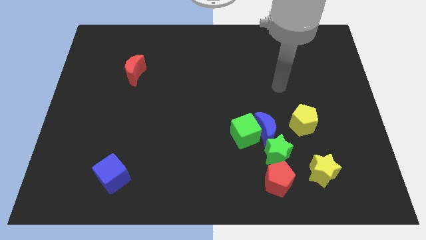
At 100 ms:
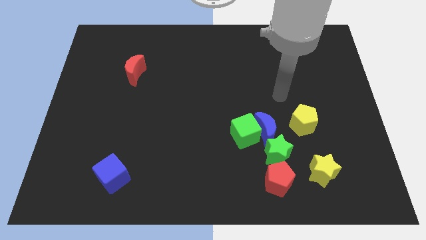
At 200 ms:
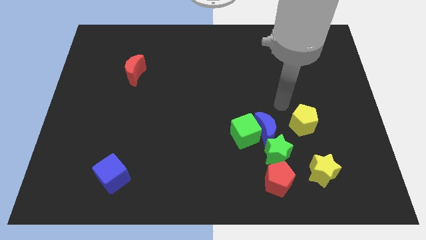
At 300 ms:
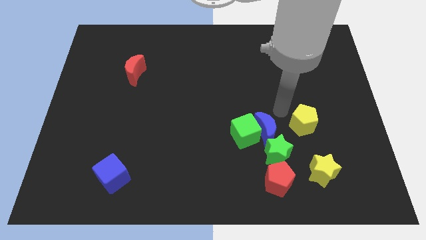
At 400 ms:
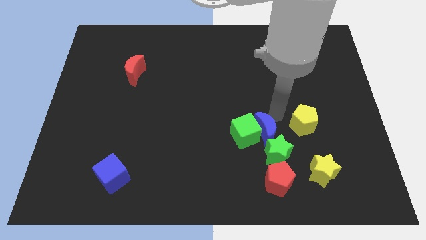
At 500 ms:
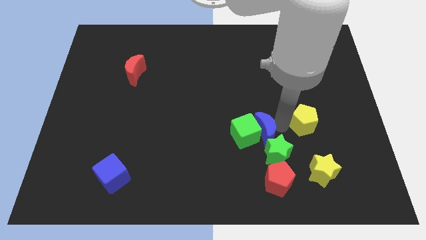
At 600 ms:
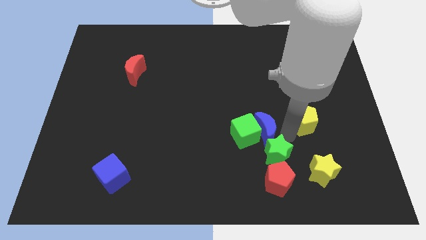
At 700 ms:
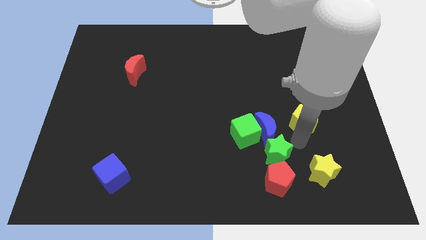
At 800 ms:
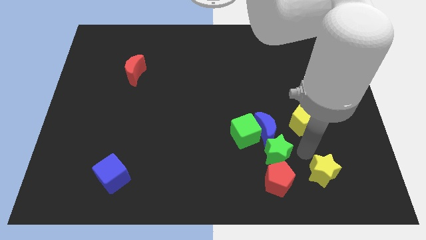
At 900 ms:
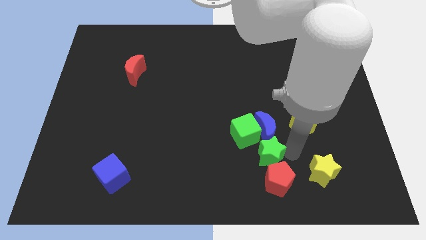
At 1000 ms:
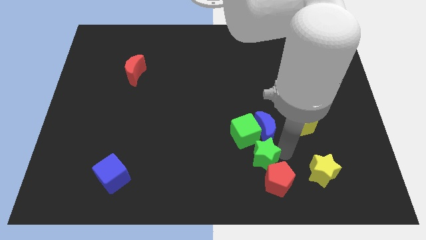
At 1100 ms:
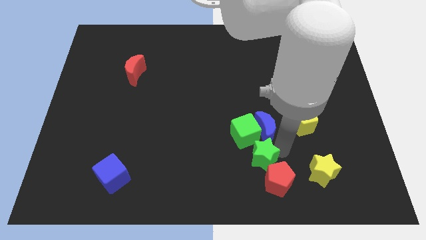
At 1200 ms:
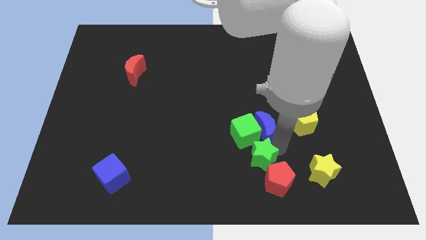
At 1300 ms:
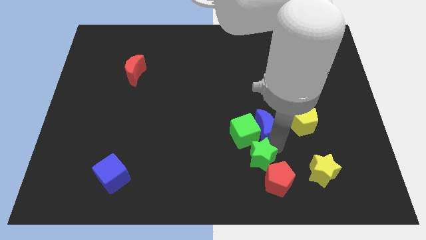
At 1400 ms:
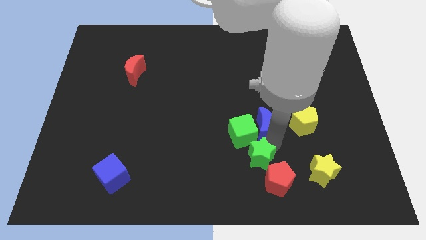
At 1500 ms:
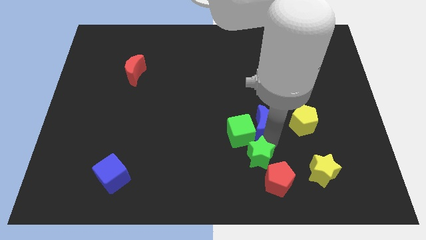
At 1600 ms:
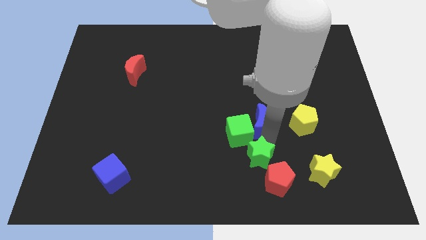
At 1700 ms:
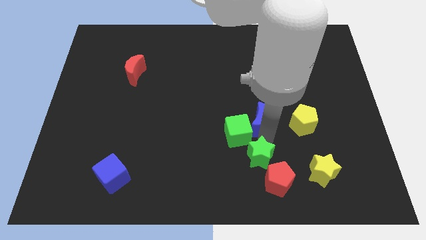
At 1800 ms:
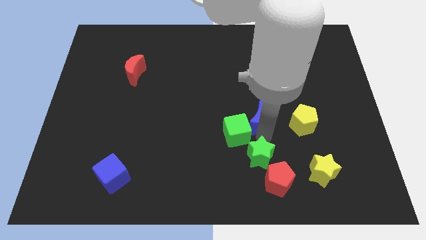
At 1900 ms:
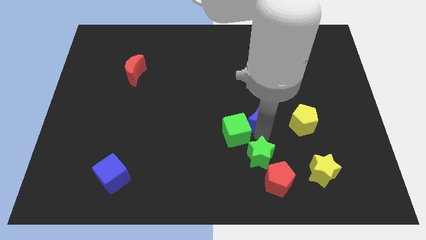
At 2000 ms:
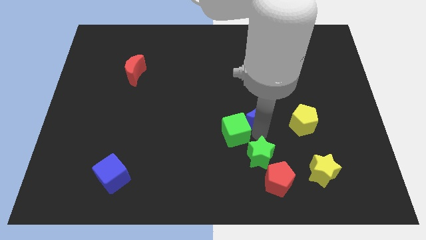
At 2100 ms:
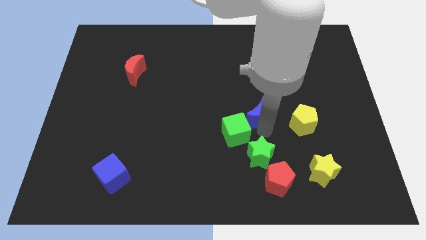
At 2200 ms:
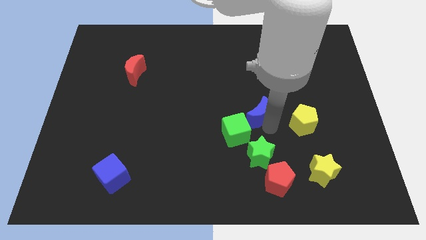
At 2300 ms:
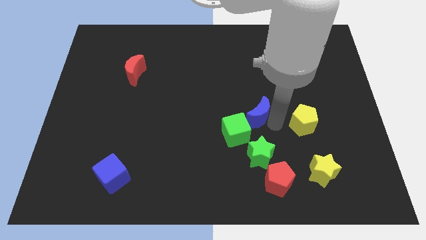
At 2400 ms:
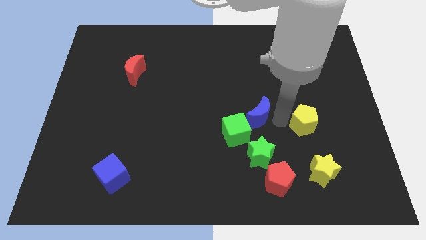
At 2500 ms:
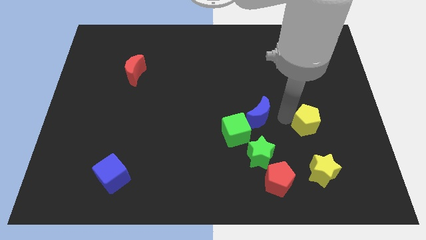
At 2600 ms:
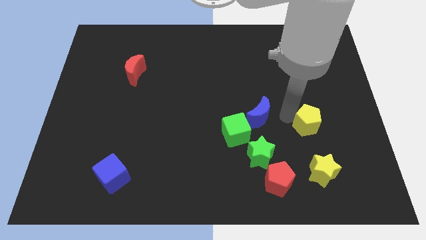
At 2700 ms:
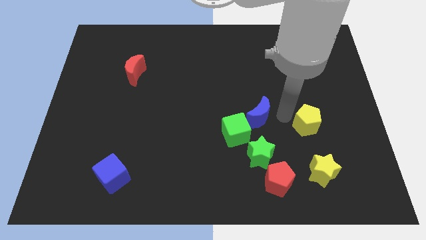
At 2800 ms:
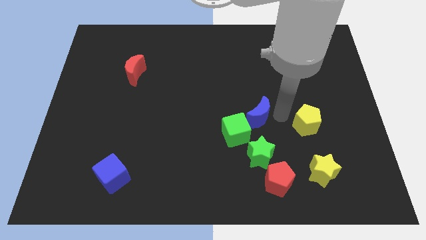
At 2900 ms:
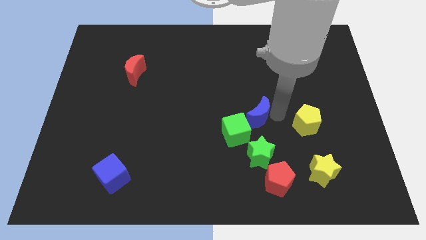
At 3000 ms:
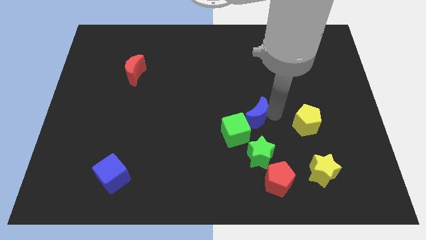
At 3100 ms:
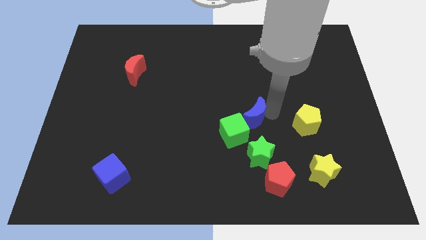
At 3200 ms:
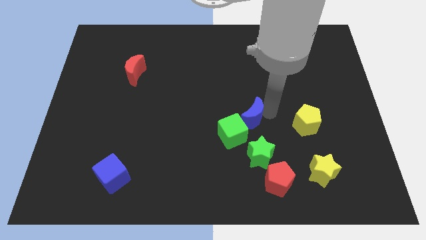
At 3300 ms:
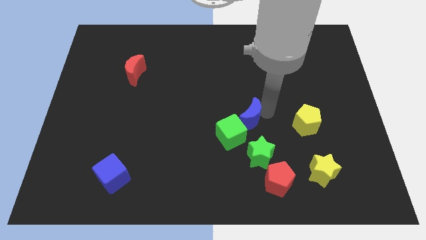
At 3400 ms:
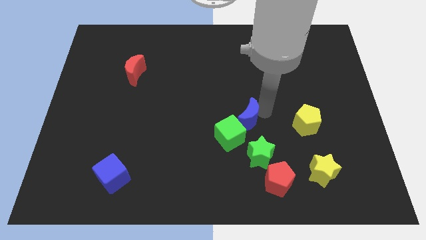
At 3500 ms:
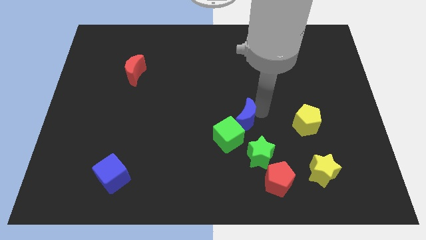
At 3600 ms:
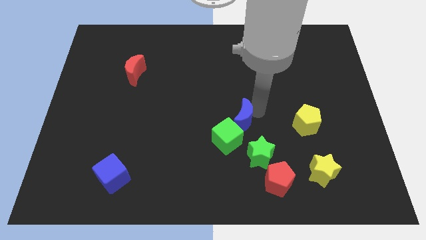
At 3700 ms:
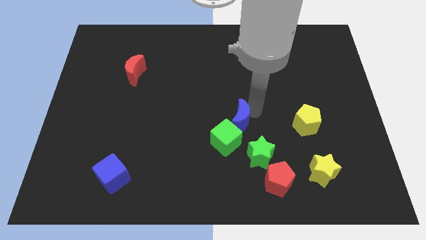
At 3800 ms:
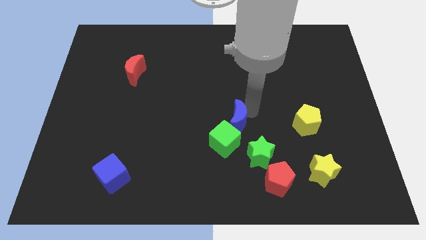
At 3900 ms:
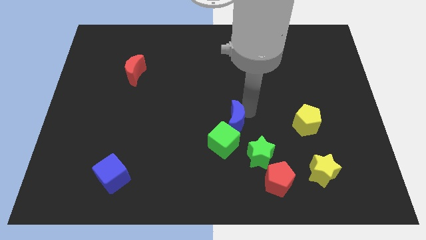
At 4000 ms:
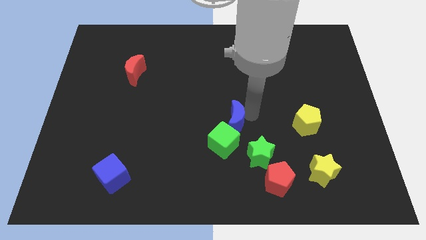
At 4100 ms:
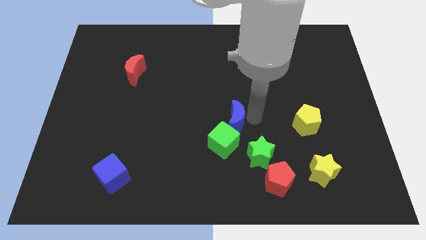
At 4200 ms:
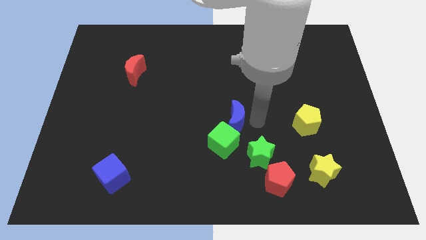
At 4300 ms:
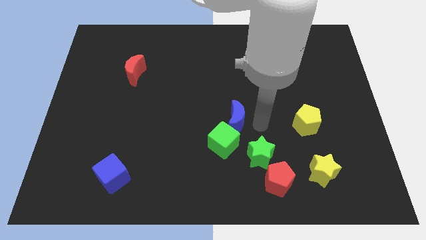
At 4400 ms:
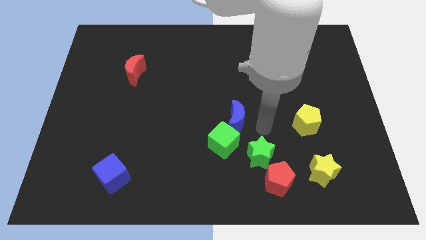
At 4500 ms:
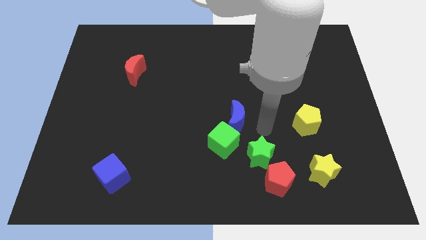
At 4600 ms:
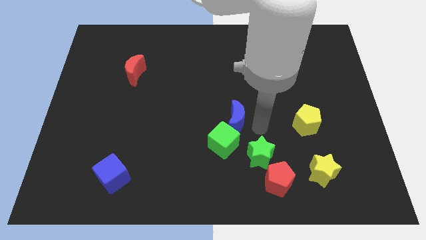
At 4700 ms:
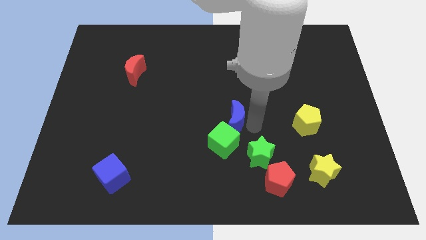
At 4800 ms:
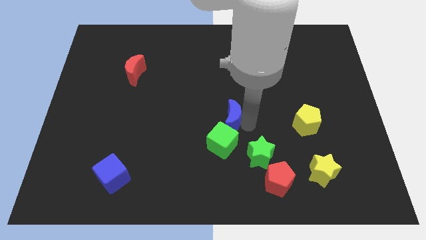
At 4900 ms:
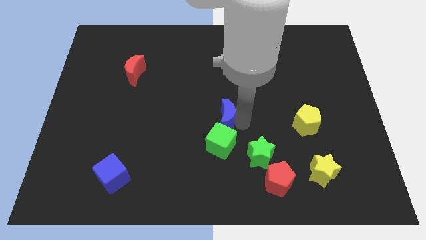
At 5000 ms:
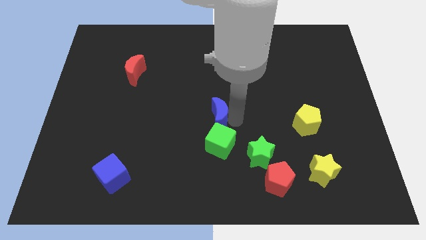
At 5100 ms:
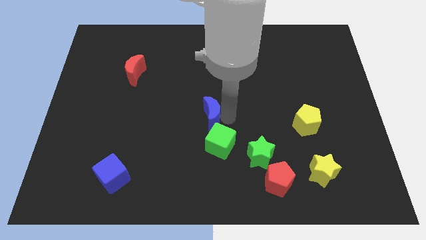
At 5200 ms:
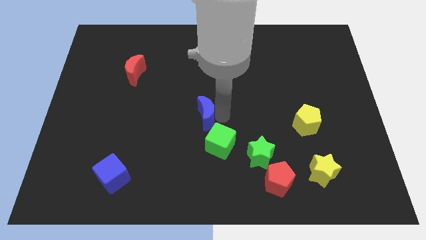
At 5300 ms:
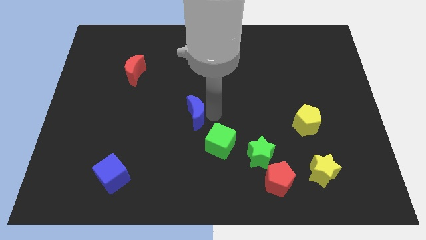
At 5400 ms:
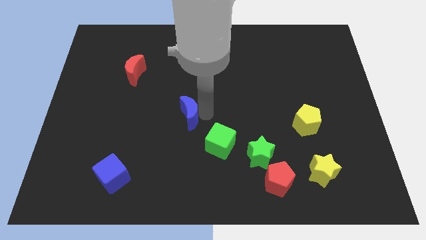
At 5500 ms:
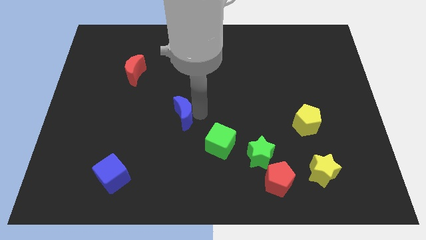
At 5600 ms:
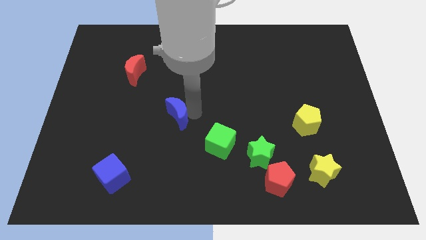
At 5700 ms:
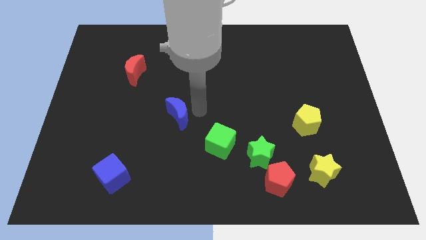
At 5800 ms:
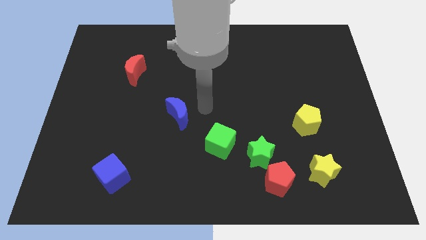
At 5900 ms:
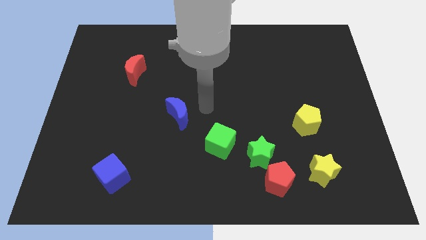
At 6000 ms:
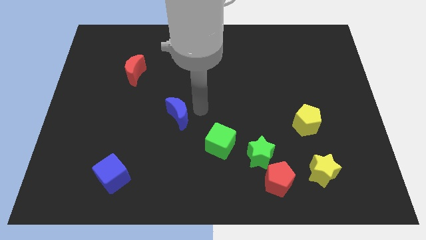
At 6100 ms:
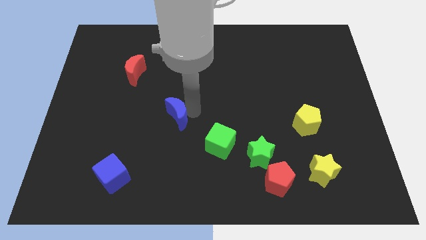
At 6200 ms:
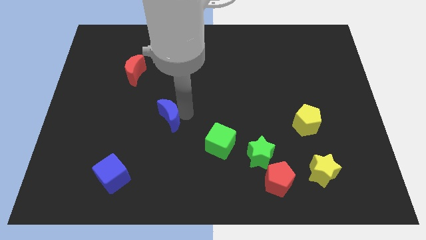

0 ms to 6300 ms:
move the blue moon left

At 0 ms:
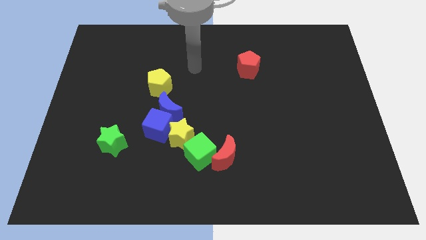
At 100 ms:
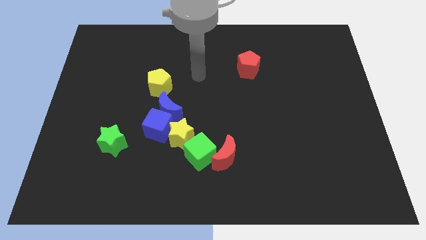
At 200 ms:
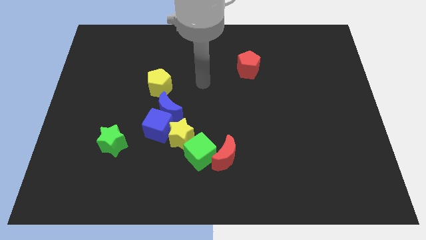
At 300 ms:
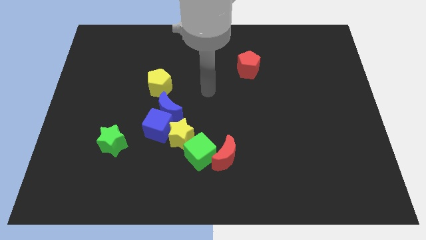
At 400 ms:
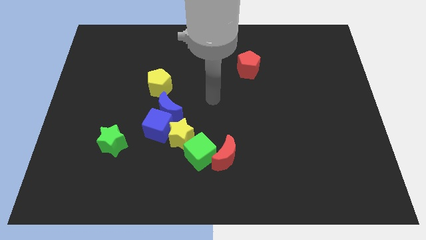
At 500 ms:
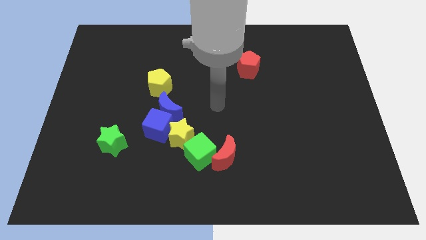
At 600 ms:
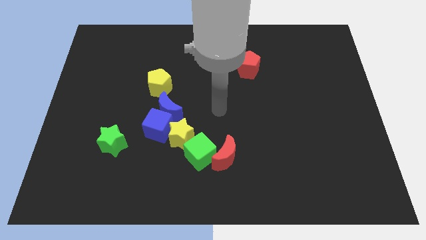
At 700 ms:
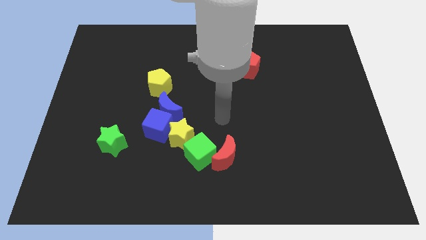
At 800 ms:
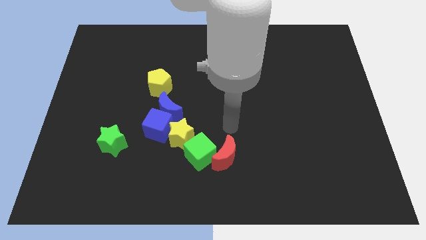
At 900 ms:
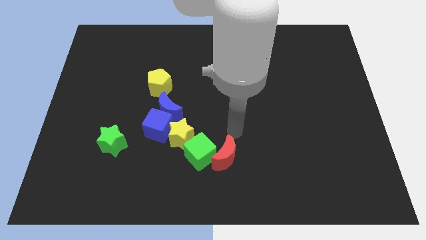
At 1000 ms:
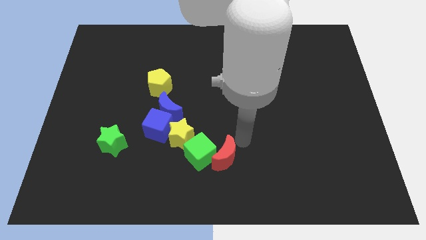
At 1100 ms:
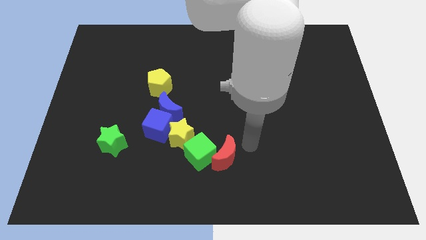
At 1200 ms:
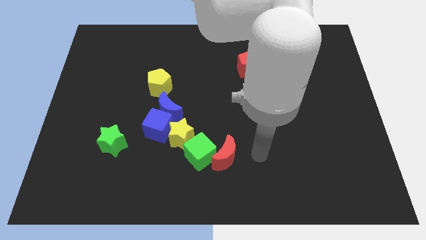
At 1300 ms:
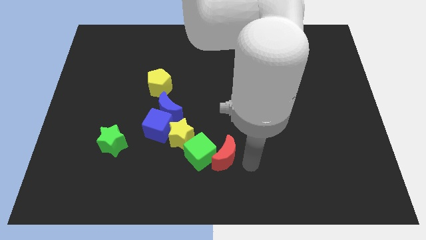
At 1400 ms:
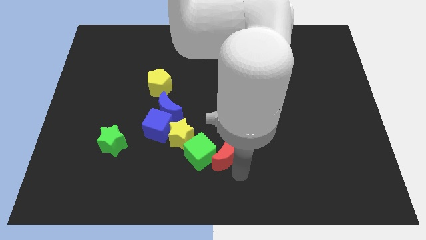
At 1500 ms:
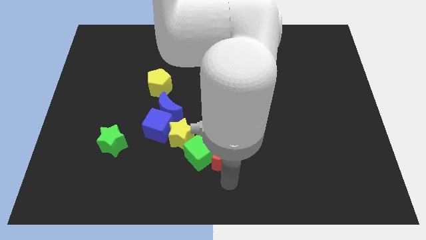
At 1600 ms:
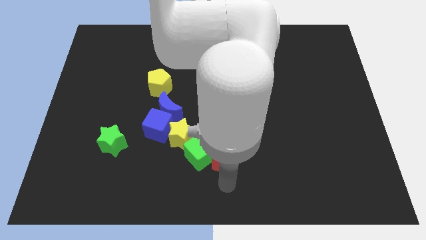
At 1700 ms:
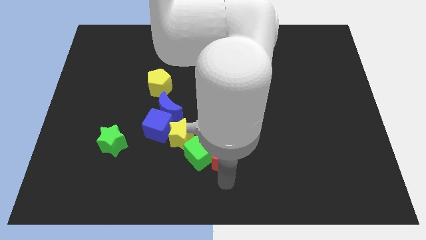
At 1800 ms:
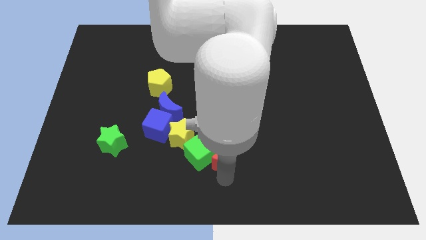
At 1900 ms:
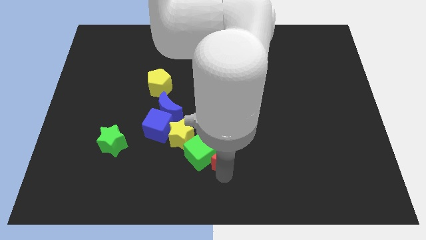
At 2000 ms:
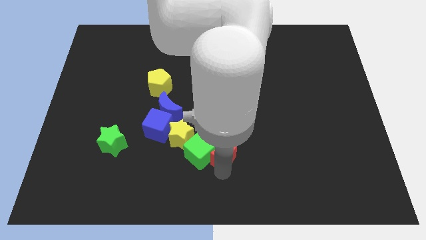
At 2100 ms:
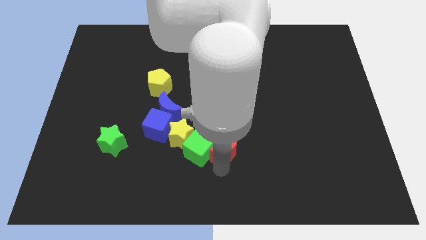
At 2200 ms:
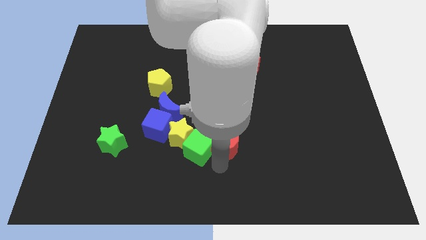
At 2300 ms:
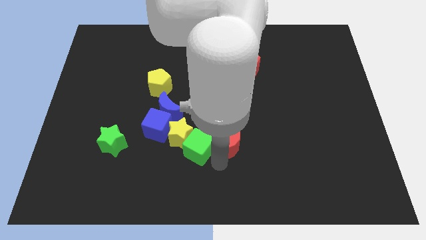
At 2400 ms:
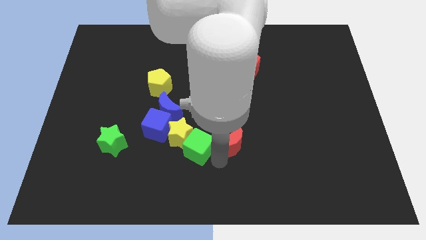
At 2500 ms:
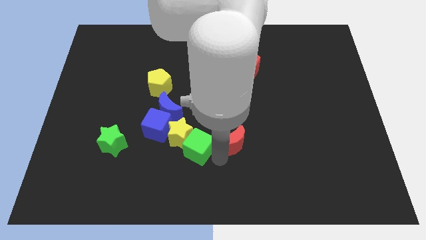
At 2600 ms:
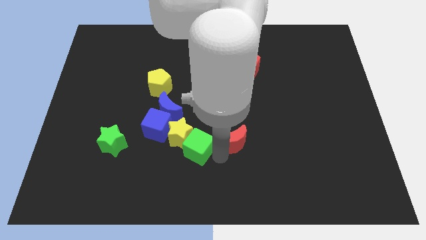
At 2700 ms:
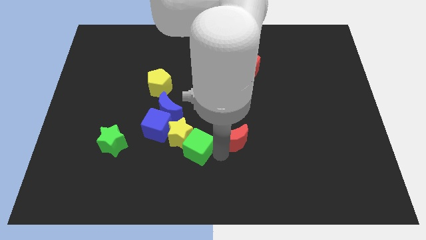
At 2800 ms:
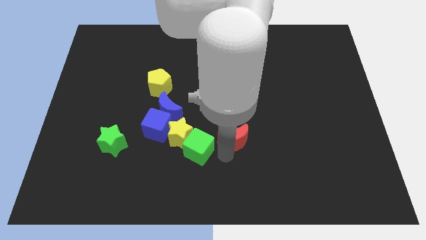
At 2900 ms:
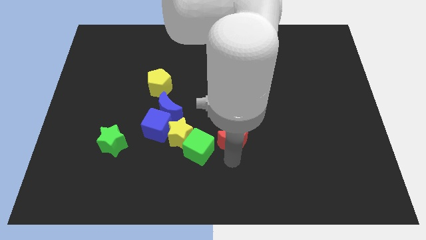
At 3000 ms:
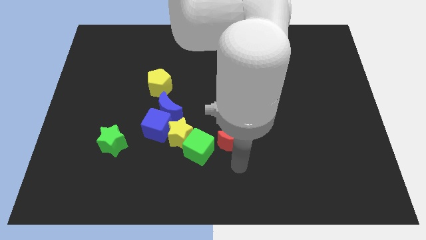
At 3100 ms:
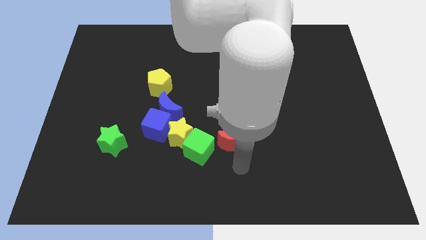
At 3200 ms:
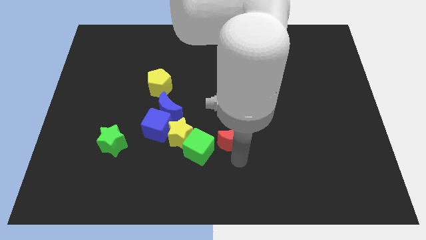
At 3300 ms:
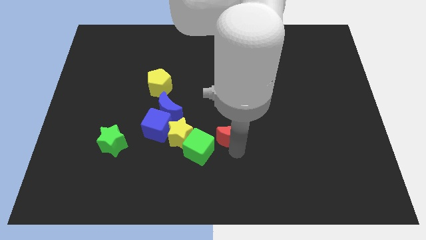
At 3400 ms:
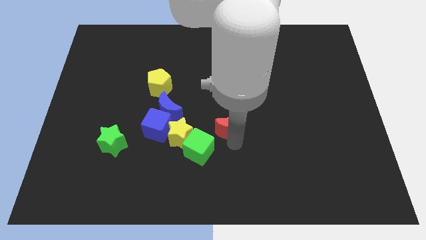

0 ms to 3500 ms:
push the red moon upwards a little bit
